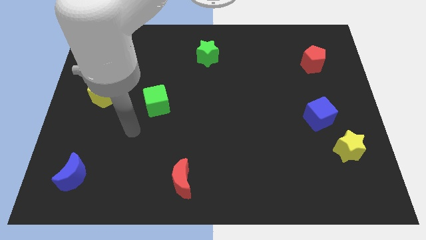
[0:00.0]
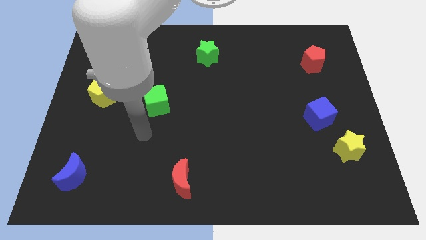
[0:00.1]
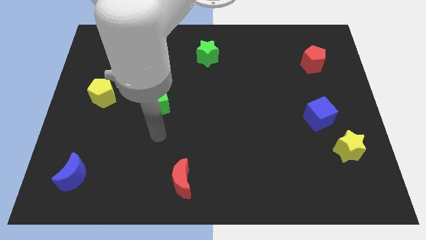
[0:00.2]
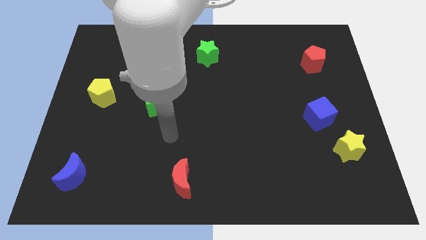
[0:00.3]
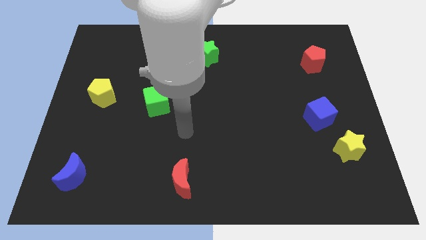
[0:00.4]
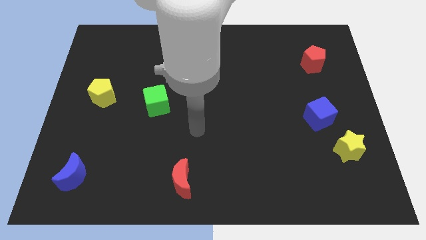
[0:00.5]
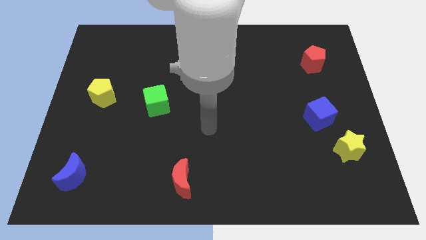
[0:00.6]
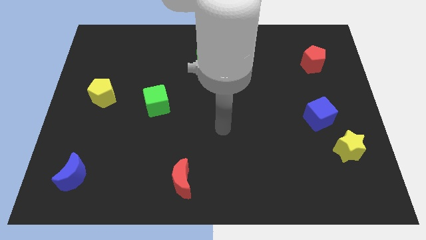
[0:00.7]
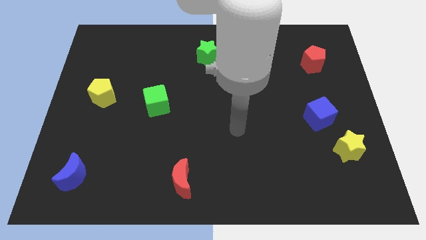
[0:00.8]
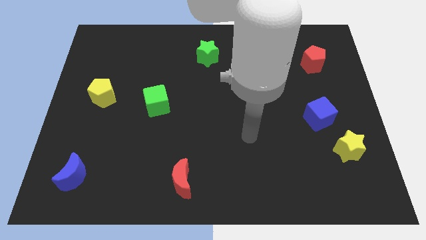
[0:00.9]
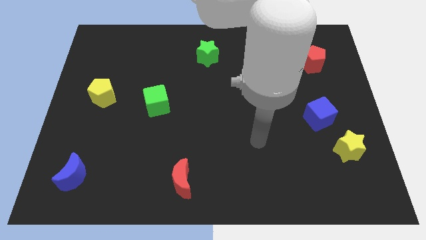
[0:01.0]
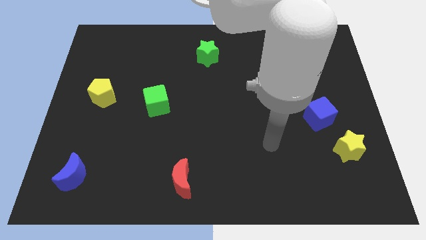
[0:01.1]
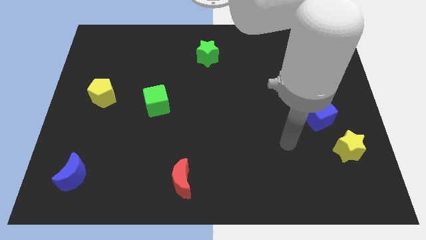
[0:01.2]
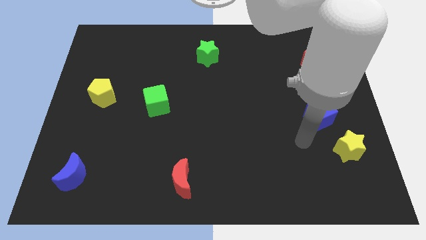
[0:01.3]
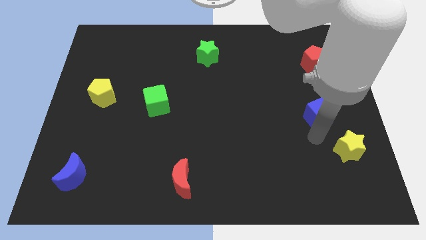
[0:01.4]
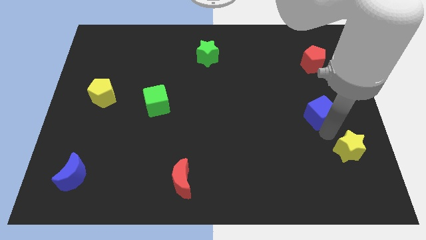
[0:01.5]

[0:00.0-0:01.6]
move the blue cube away from the yellow star

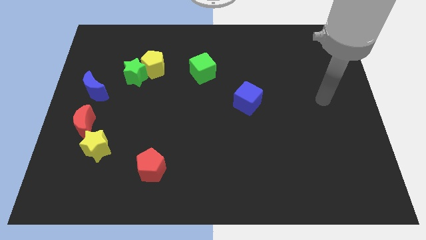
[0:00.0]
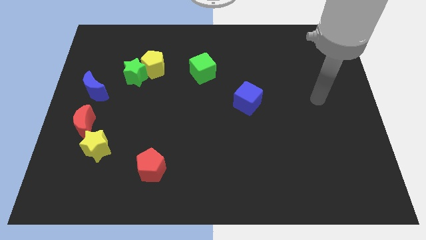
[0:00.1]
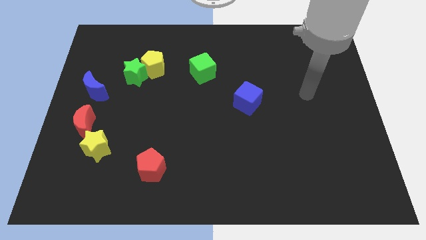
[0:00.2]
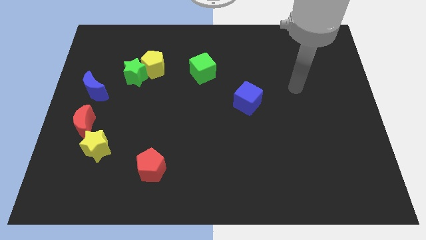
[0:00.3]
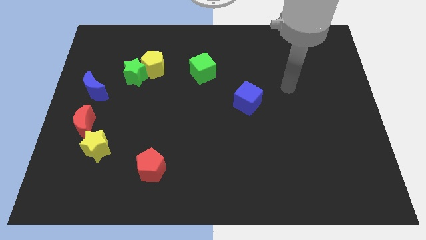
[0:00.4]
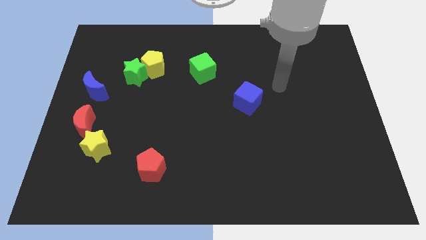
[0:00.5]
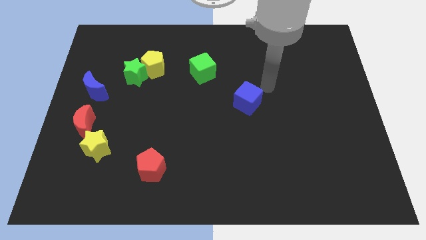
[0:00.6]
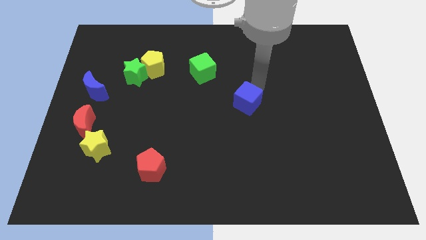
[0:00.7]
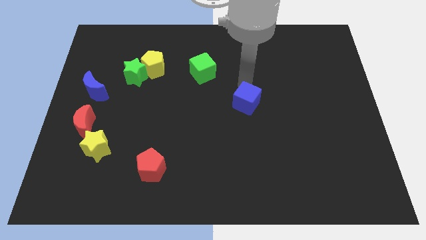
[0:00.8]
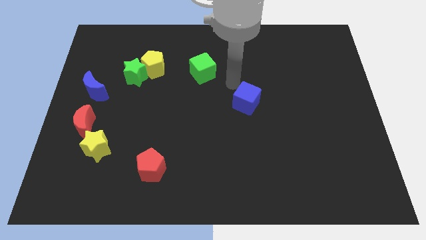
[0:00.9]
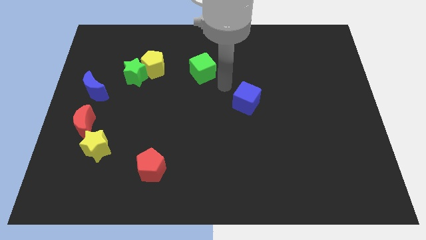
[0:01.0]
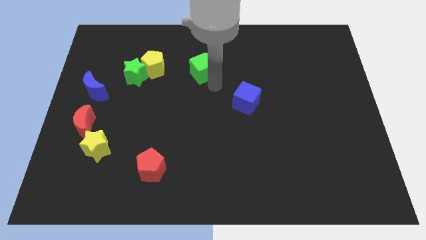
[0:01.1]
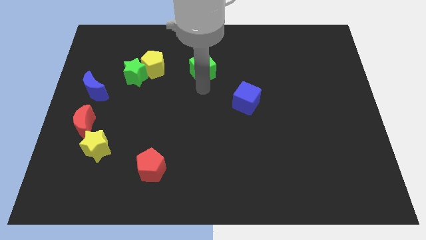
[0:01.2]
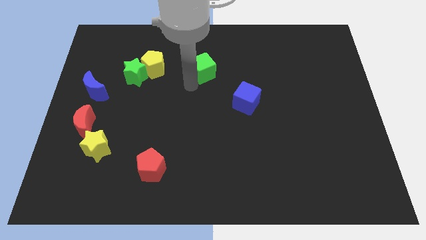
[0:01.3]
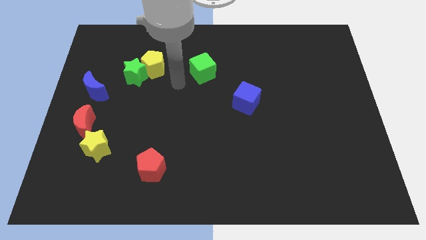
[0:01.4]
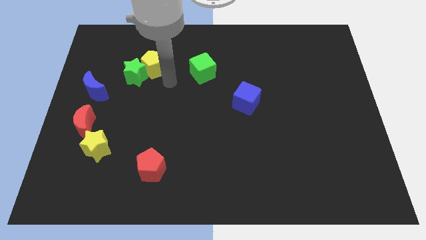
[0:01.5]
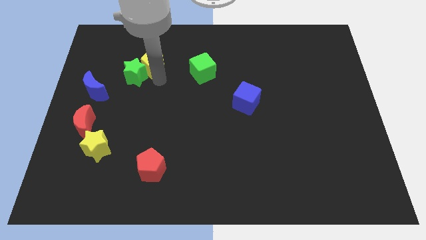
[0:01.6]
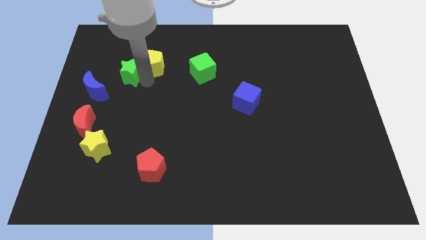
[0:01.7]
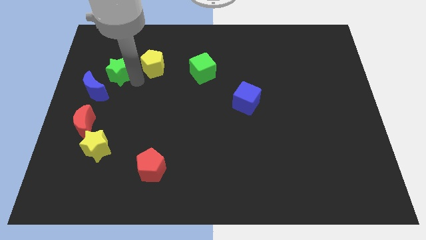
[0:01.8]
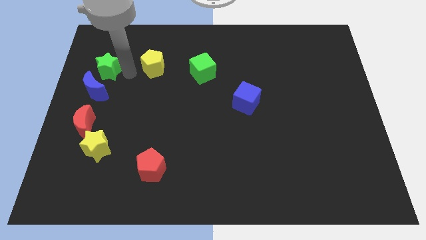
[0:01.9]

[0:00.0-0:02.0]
move the yellow pentagon away from the green star

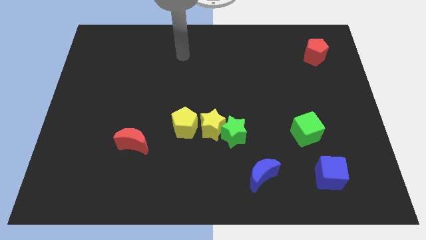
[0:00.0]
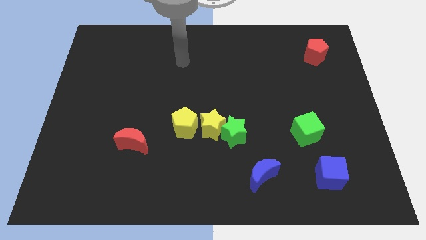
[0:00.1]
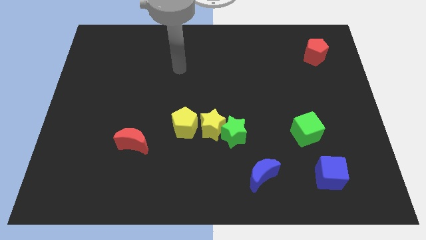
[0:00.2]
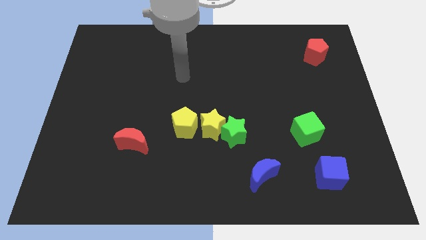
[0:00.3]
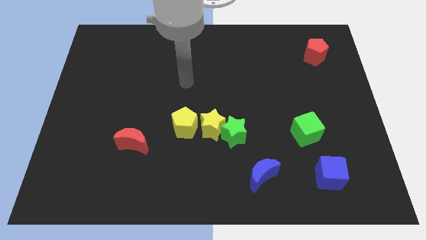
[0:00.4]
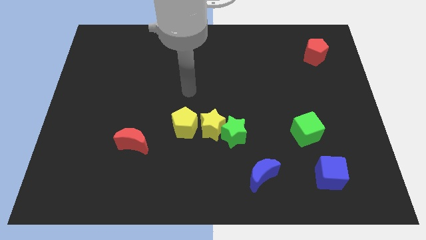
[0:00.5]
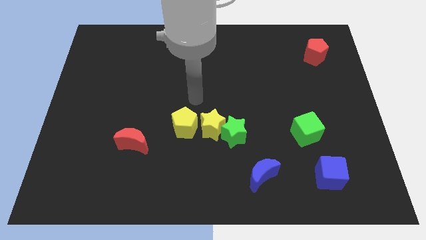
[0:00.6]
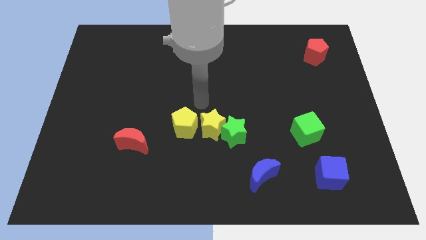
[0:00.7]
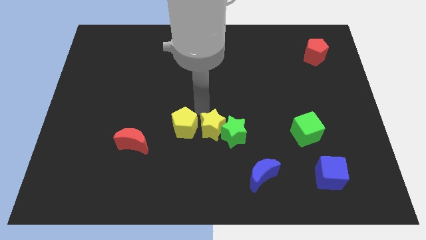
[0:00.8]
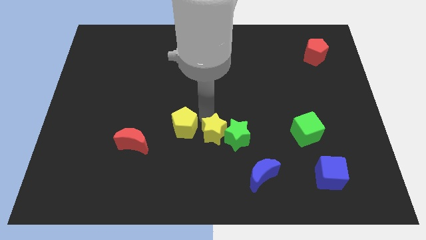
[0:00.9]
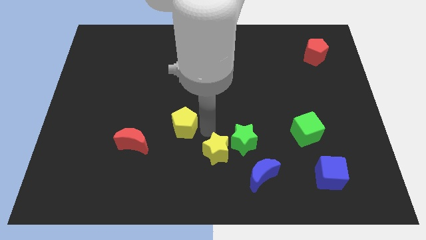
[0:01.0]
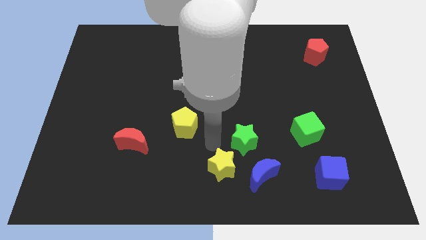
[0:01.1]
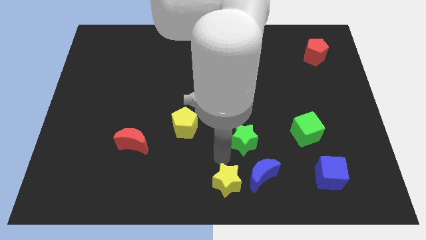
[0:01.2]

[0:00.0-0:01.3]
move the green star away from the yellow star

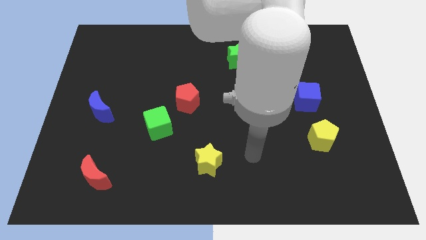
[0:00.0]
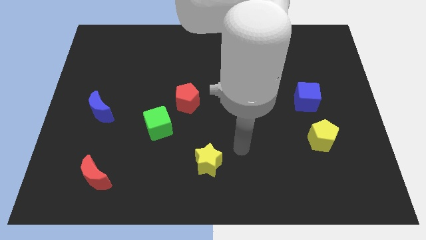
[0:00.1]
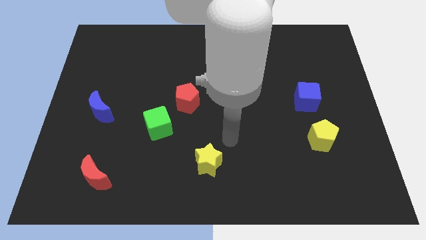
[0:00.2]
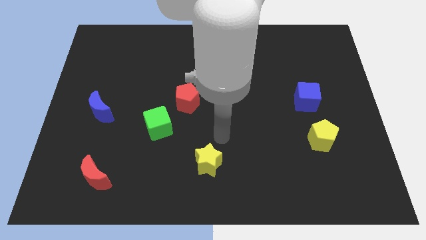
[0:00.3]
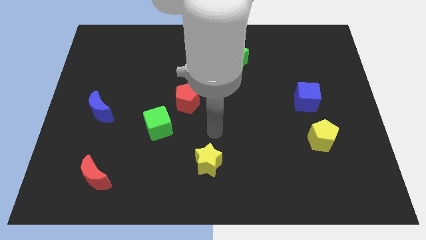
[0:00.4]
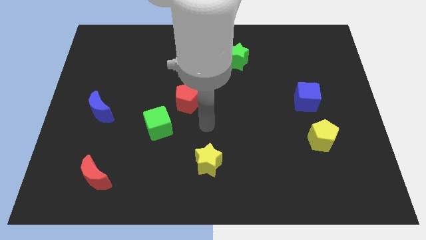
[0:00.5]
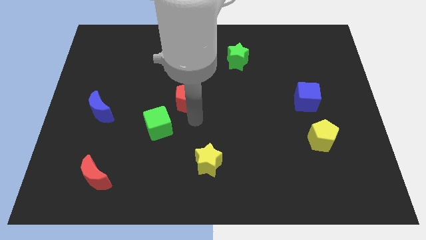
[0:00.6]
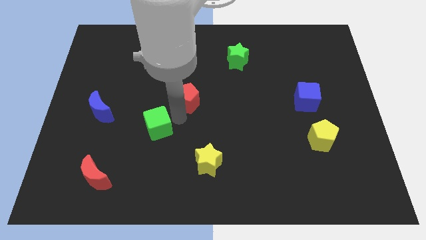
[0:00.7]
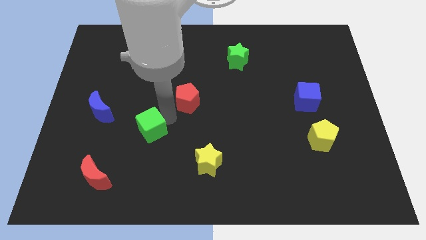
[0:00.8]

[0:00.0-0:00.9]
pull the red pentagon apart from the green cube

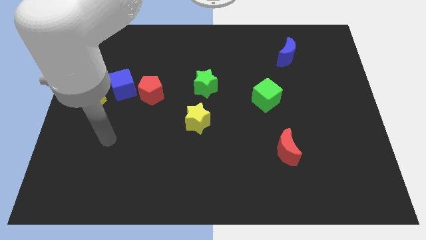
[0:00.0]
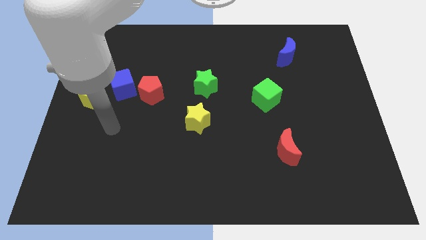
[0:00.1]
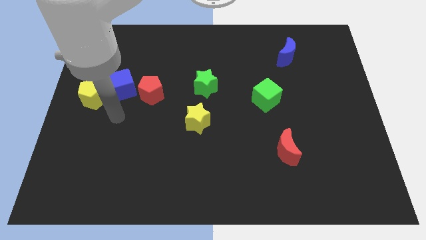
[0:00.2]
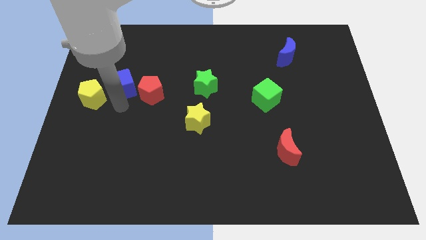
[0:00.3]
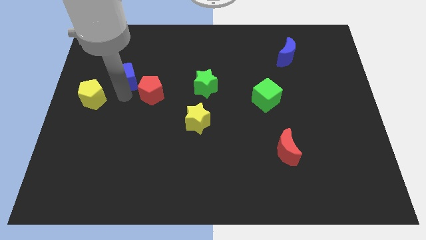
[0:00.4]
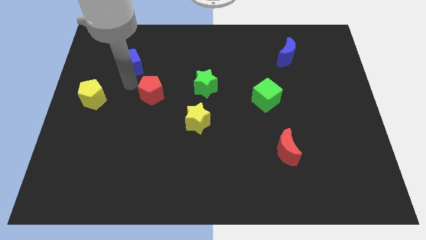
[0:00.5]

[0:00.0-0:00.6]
move the red pentagon away from the blue cube

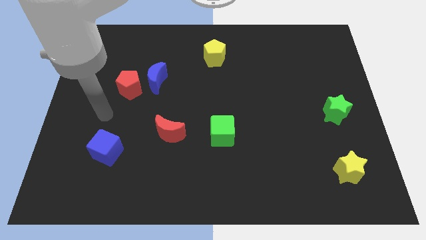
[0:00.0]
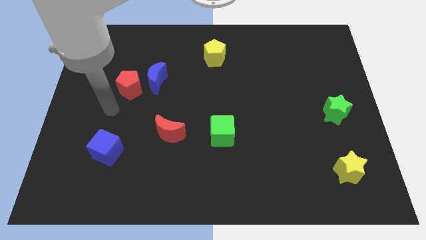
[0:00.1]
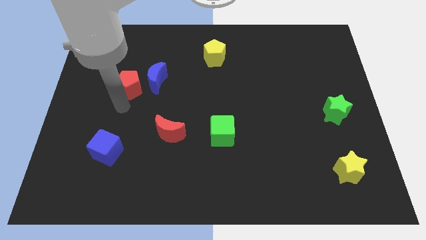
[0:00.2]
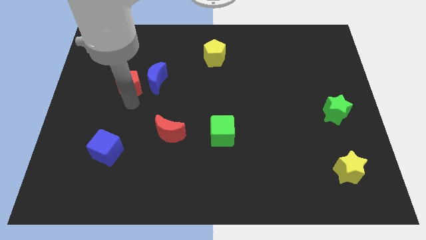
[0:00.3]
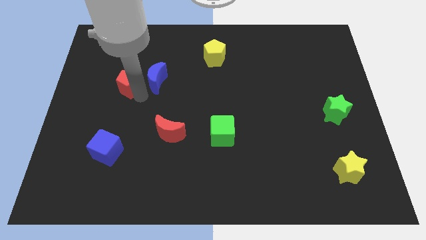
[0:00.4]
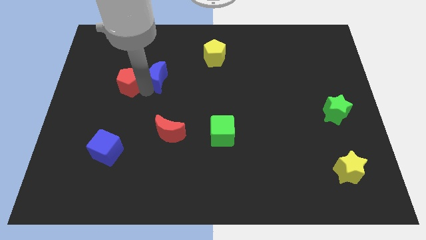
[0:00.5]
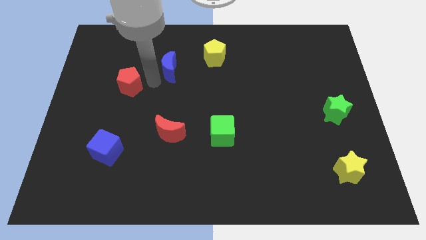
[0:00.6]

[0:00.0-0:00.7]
pull the red pentagon apart from the blue moon

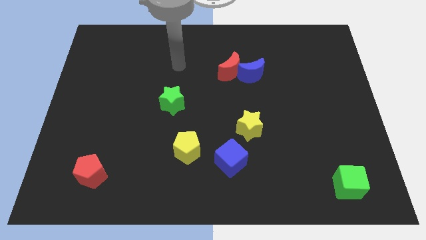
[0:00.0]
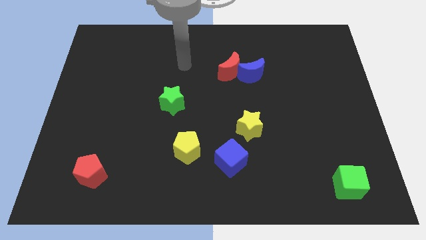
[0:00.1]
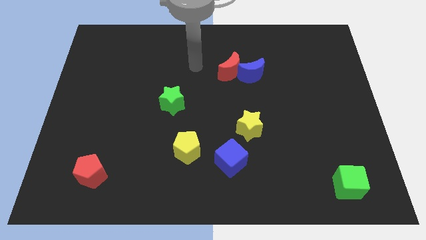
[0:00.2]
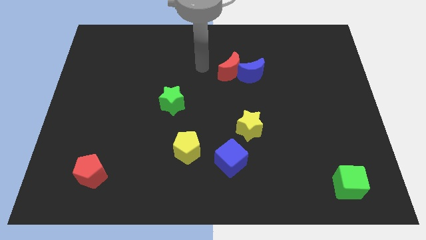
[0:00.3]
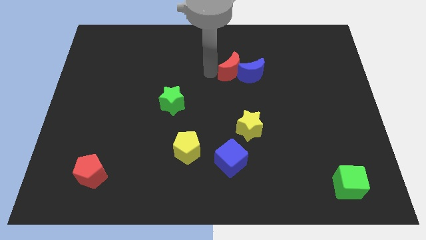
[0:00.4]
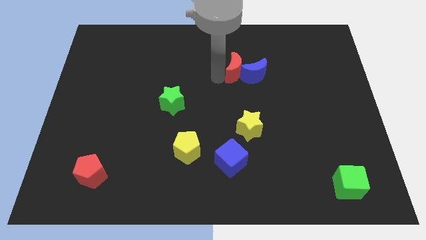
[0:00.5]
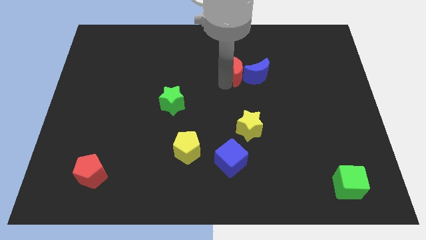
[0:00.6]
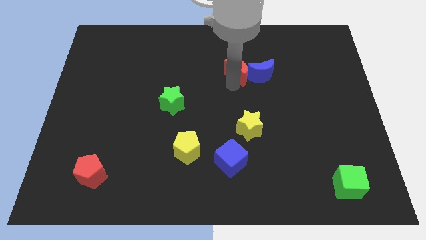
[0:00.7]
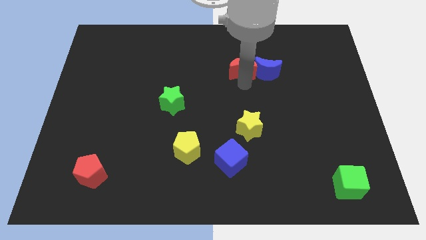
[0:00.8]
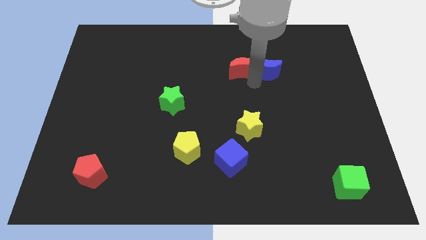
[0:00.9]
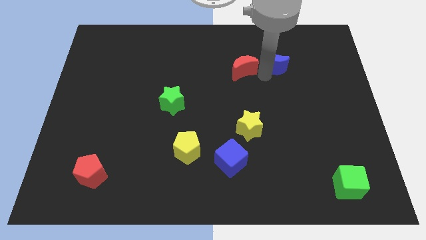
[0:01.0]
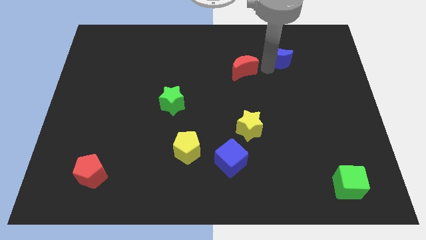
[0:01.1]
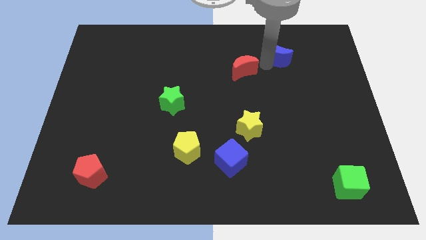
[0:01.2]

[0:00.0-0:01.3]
move the red moon away from the blue moon

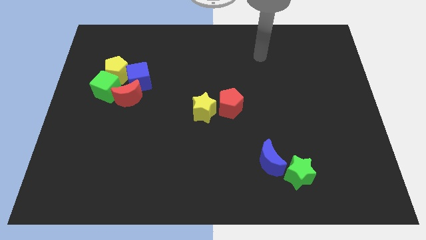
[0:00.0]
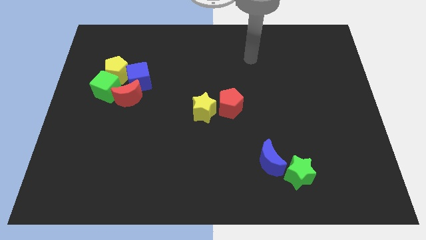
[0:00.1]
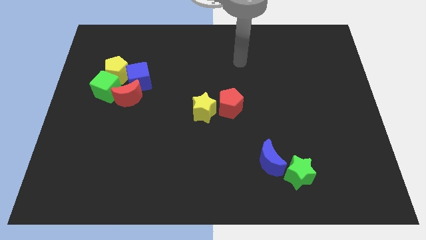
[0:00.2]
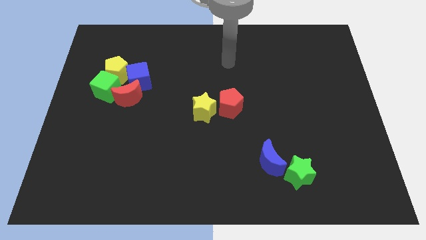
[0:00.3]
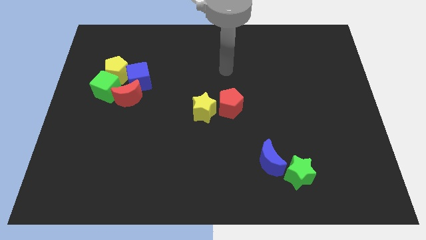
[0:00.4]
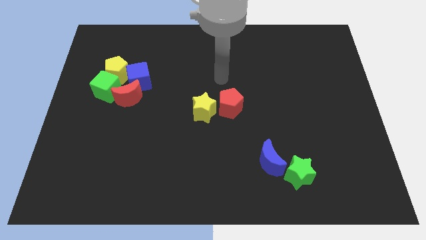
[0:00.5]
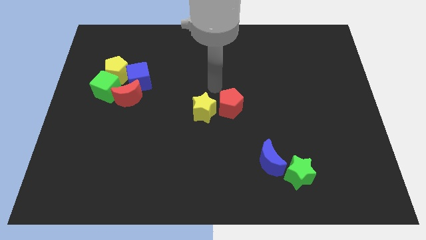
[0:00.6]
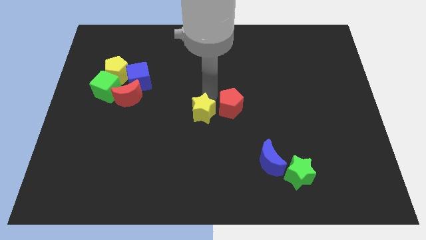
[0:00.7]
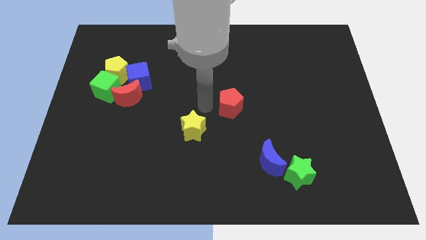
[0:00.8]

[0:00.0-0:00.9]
separate the red pentagon from the yellow star

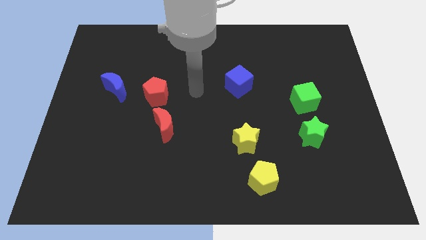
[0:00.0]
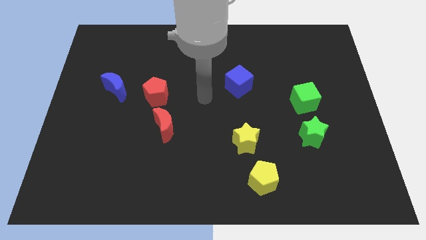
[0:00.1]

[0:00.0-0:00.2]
separate the green cube from the green star
